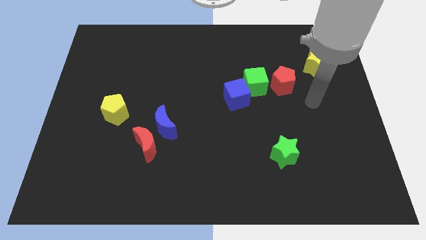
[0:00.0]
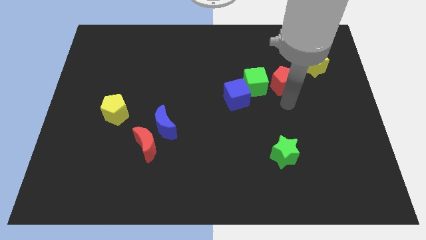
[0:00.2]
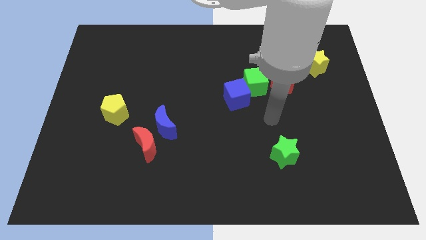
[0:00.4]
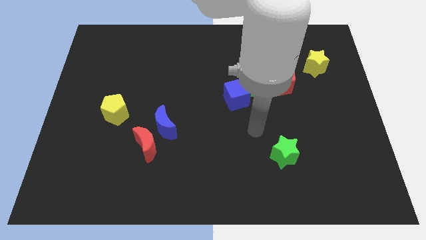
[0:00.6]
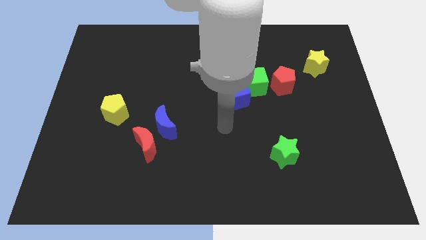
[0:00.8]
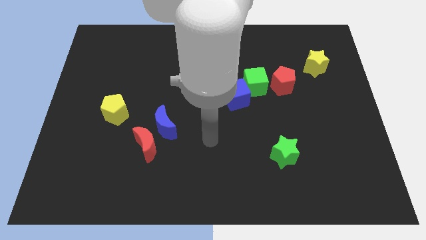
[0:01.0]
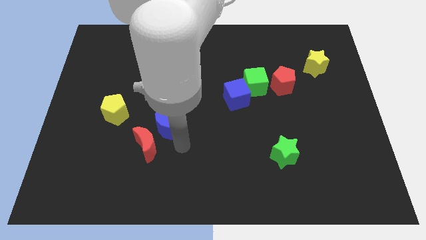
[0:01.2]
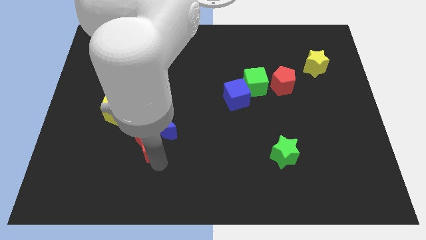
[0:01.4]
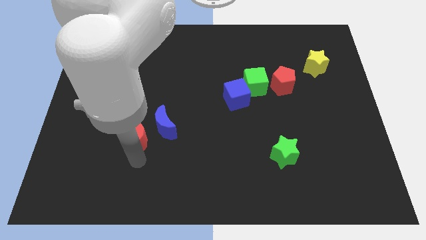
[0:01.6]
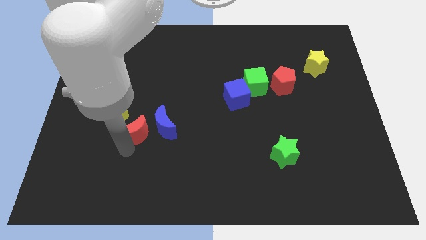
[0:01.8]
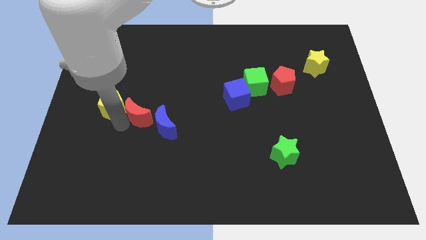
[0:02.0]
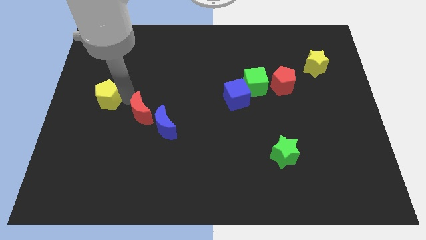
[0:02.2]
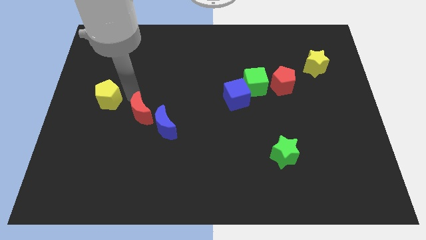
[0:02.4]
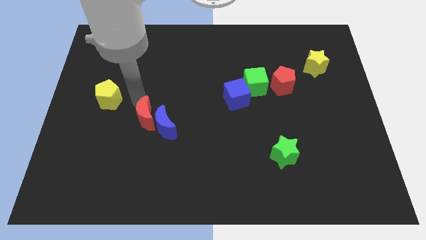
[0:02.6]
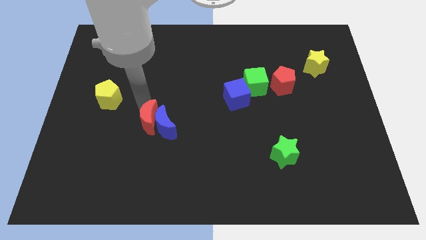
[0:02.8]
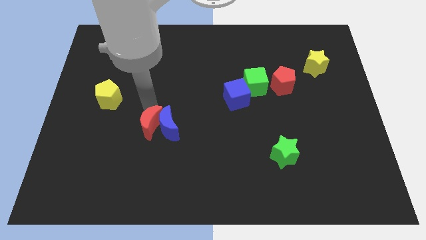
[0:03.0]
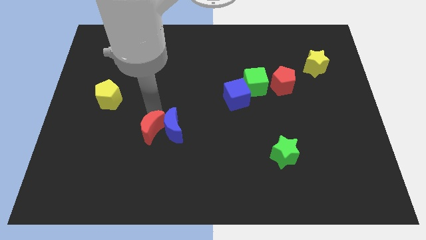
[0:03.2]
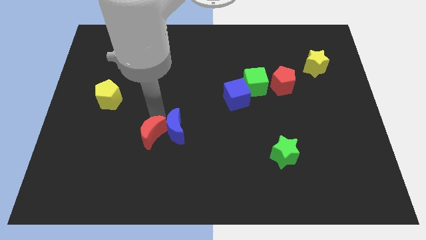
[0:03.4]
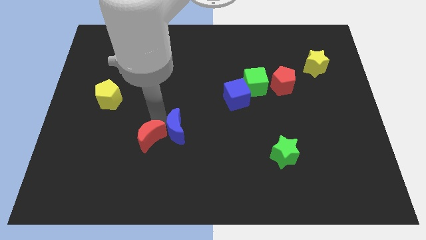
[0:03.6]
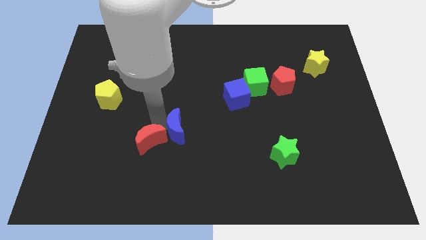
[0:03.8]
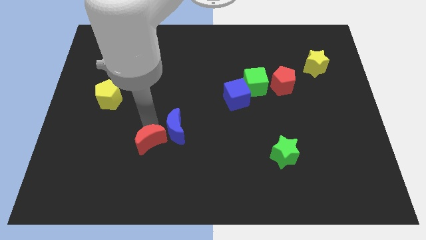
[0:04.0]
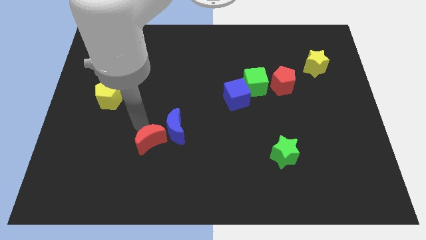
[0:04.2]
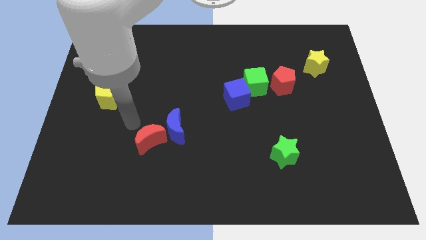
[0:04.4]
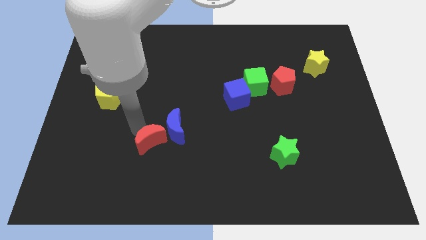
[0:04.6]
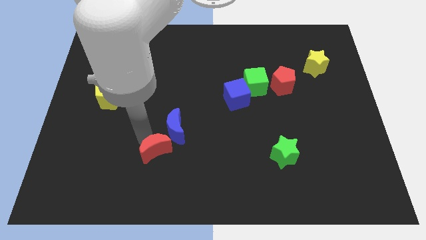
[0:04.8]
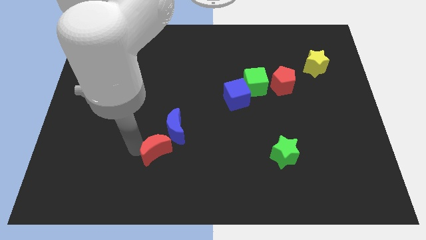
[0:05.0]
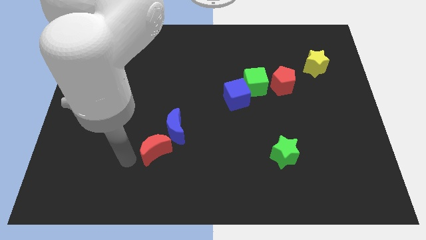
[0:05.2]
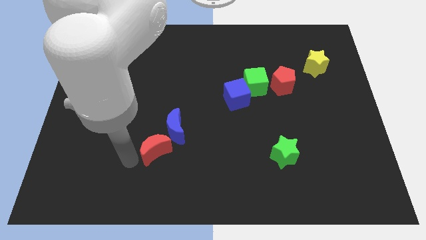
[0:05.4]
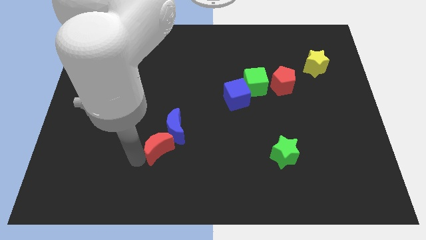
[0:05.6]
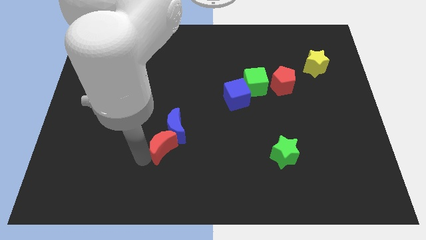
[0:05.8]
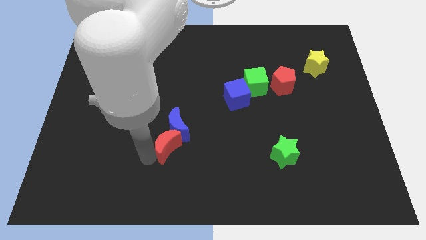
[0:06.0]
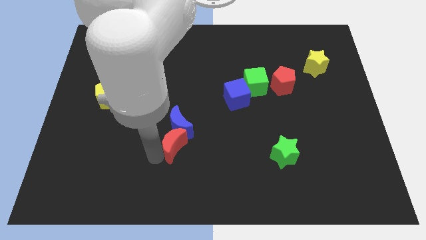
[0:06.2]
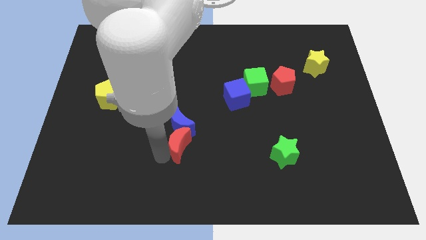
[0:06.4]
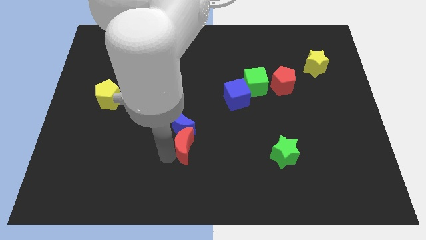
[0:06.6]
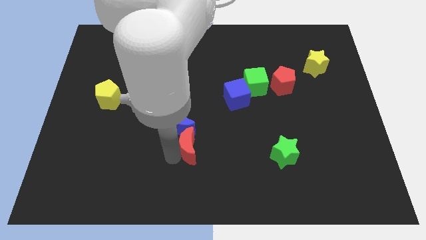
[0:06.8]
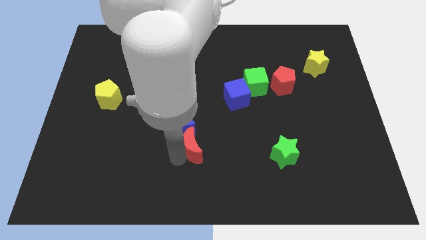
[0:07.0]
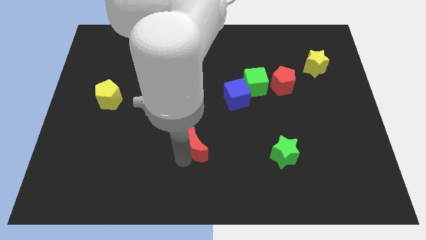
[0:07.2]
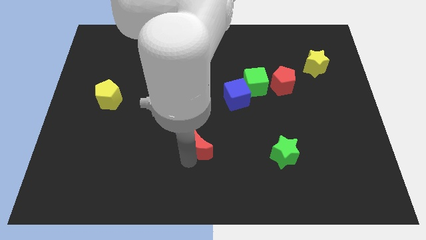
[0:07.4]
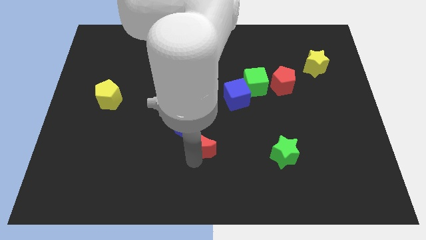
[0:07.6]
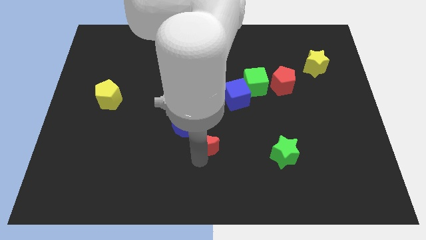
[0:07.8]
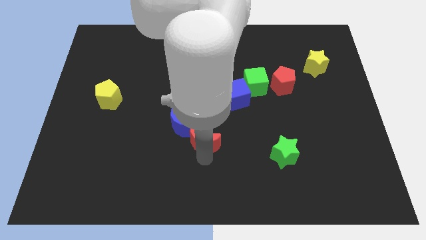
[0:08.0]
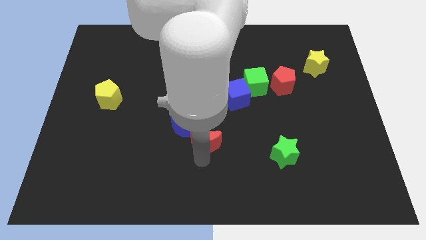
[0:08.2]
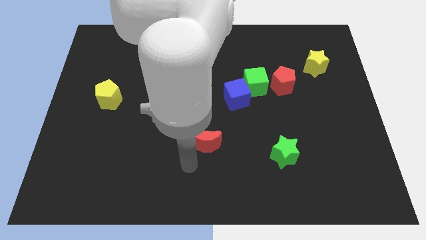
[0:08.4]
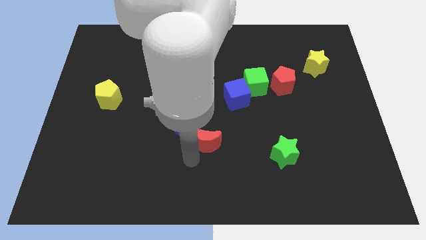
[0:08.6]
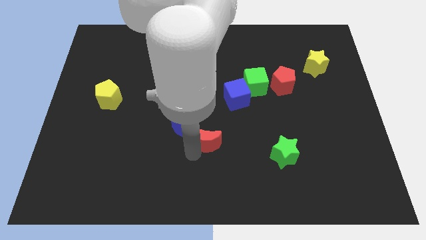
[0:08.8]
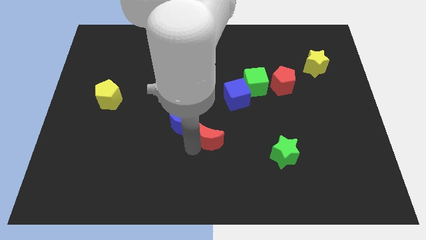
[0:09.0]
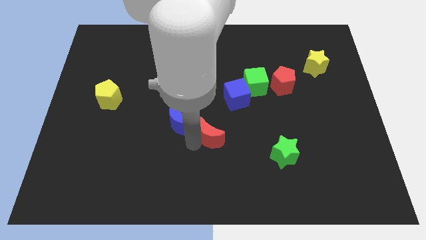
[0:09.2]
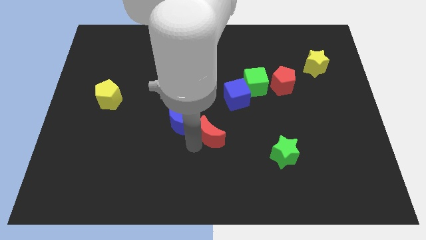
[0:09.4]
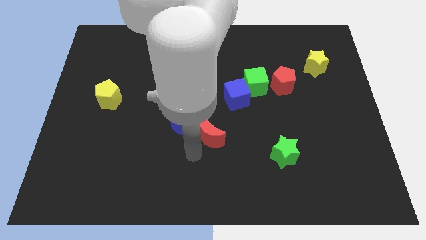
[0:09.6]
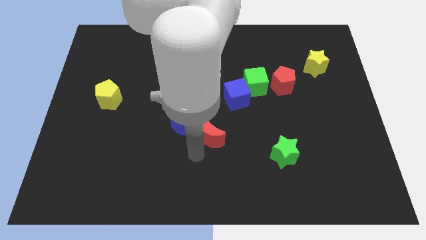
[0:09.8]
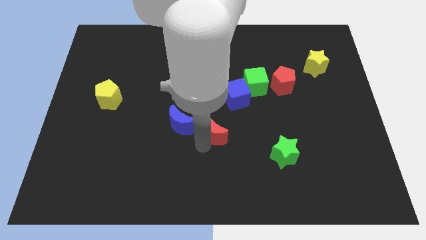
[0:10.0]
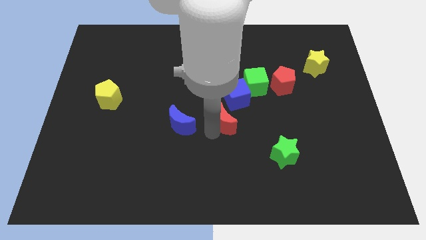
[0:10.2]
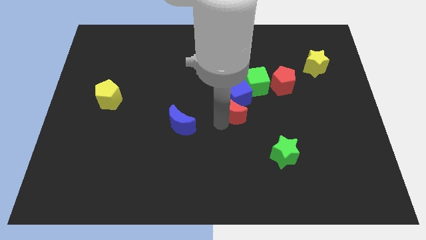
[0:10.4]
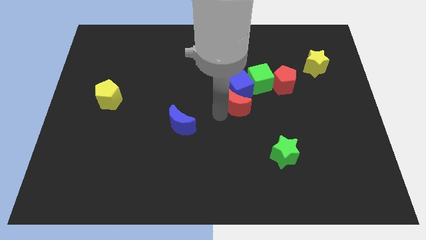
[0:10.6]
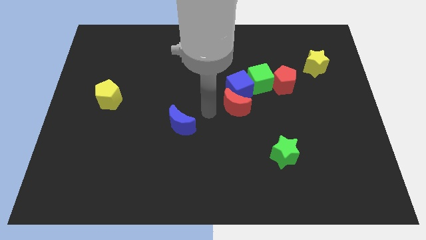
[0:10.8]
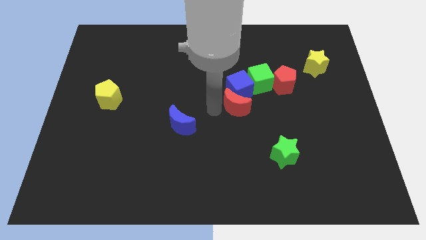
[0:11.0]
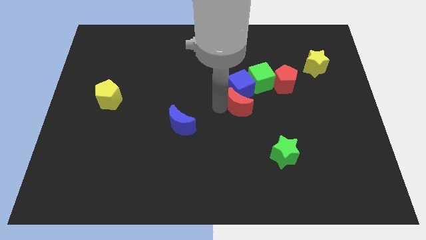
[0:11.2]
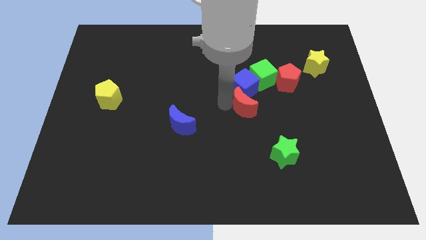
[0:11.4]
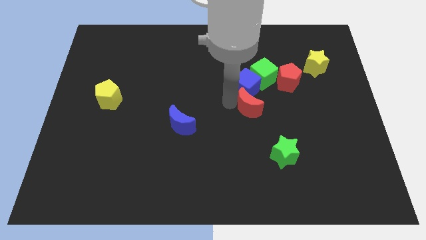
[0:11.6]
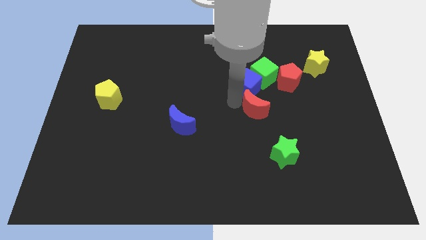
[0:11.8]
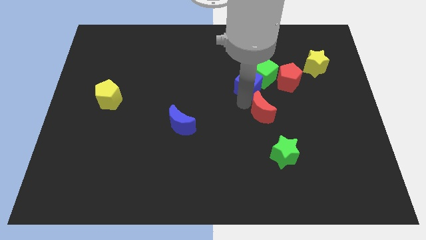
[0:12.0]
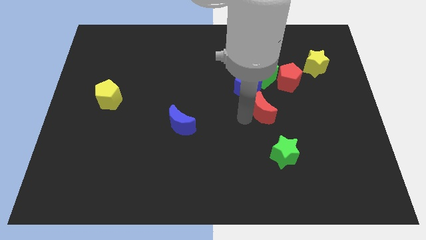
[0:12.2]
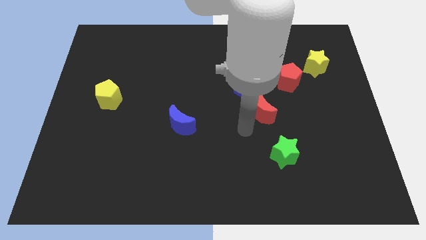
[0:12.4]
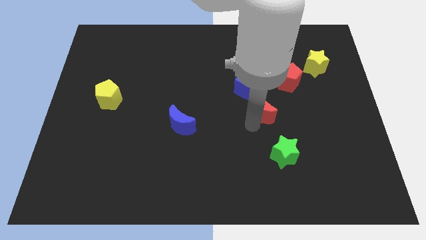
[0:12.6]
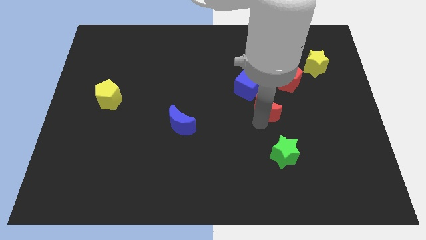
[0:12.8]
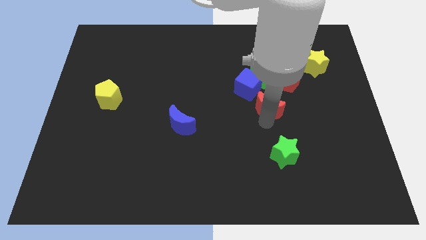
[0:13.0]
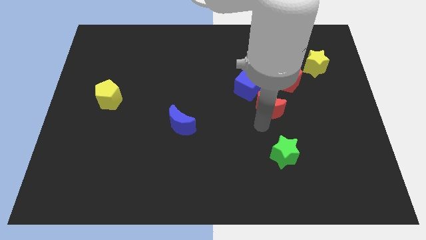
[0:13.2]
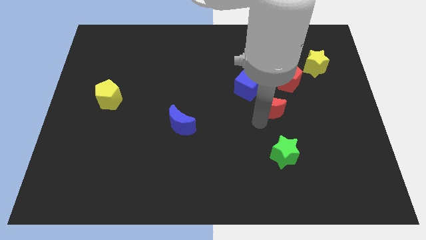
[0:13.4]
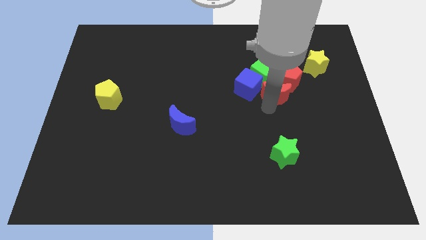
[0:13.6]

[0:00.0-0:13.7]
push the red moon next to the red pentagon

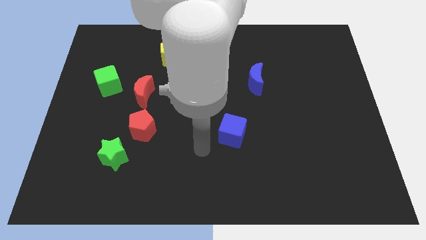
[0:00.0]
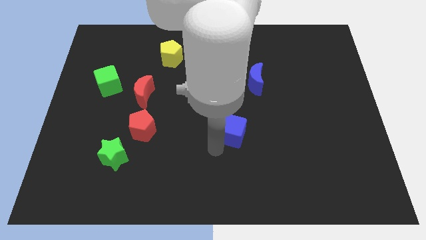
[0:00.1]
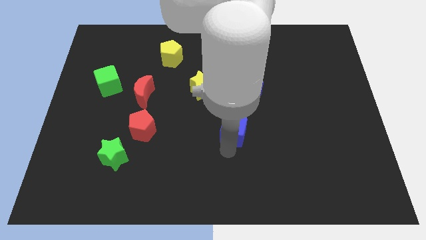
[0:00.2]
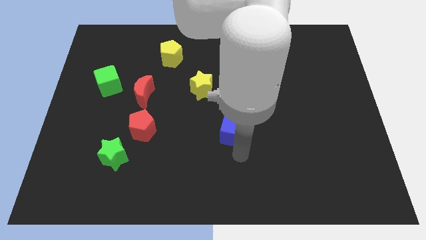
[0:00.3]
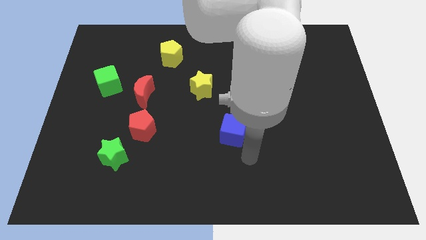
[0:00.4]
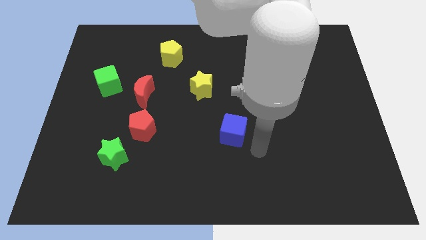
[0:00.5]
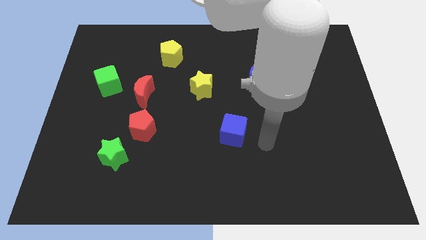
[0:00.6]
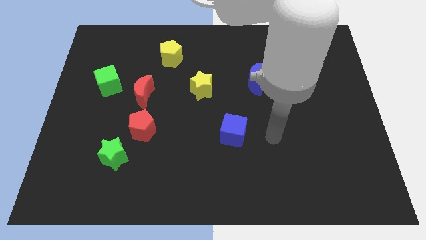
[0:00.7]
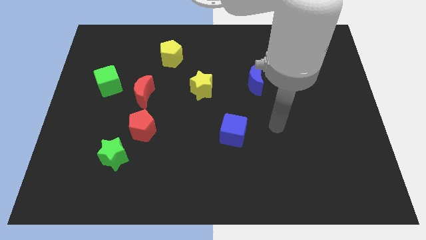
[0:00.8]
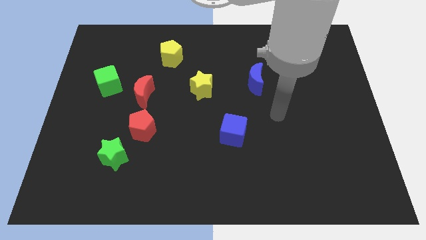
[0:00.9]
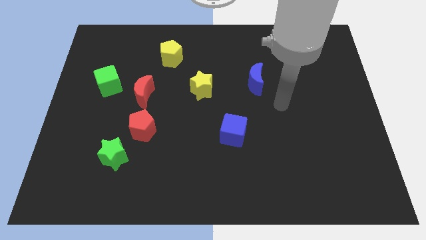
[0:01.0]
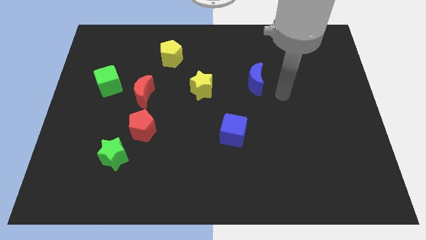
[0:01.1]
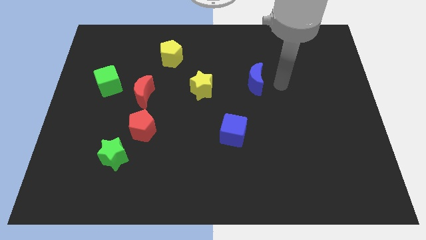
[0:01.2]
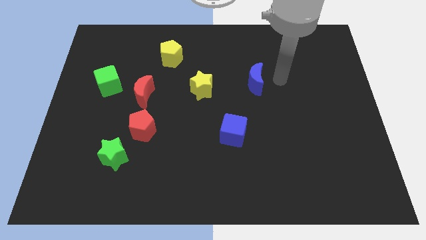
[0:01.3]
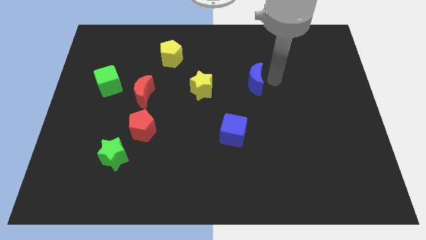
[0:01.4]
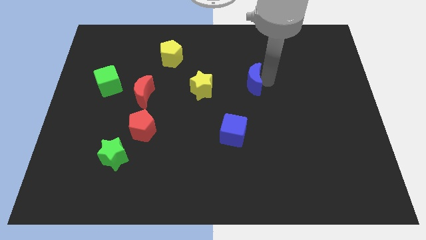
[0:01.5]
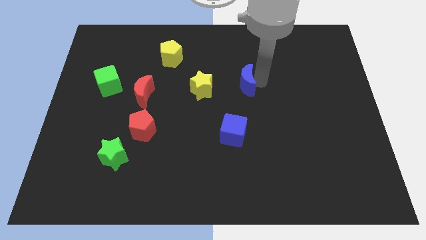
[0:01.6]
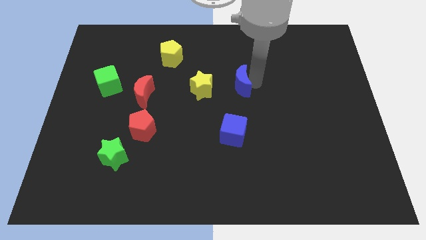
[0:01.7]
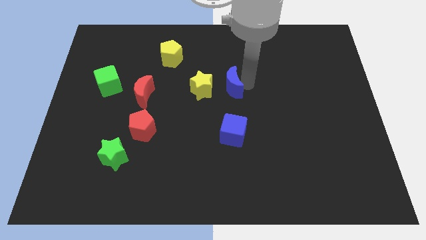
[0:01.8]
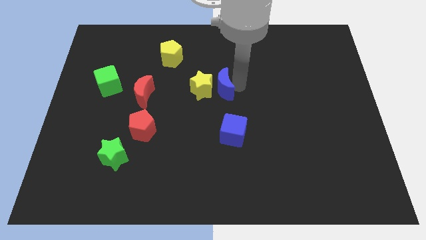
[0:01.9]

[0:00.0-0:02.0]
put the blue moon next to the yellow star
